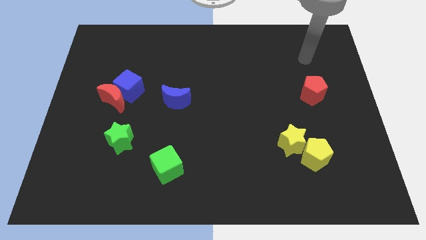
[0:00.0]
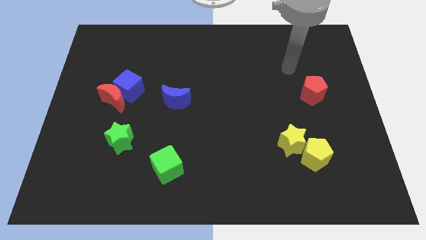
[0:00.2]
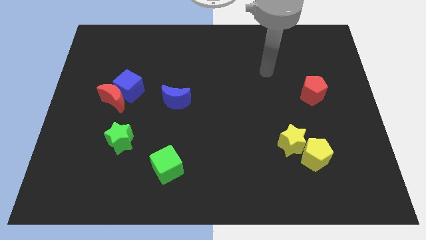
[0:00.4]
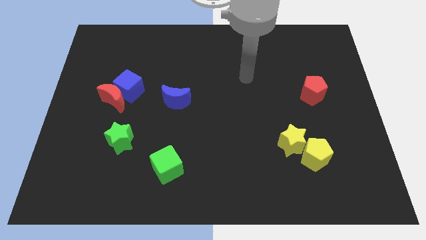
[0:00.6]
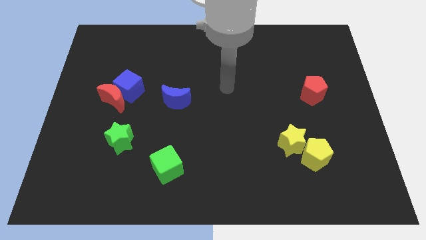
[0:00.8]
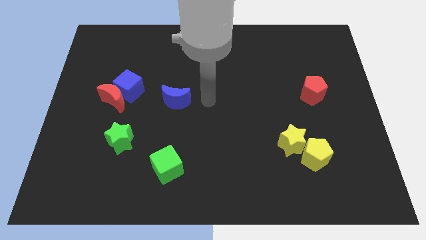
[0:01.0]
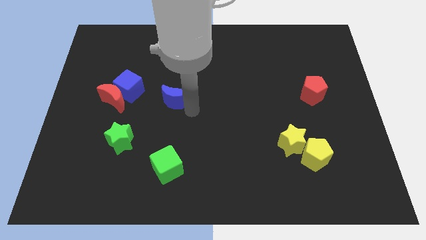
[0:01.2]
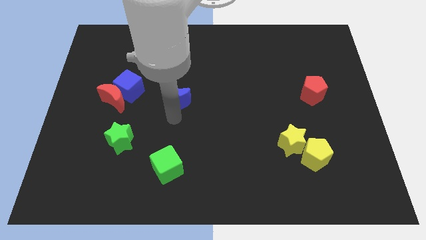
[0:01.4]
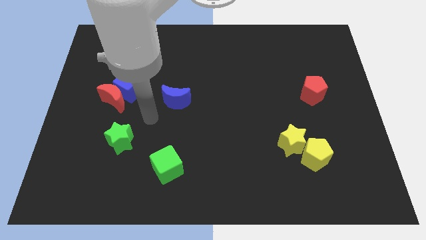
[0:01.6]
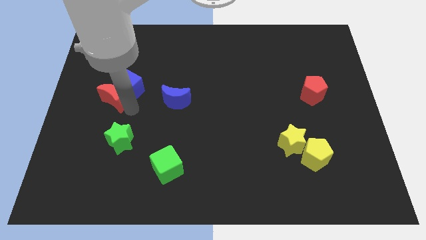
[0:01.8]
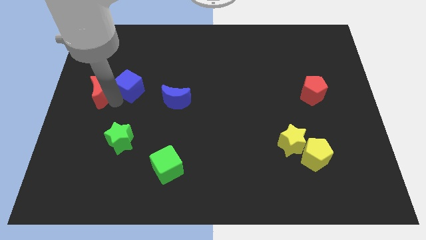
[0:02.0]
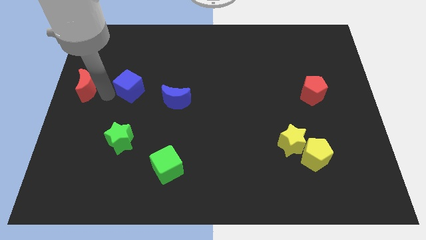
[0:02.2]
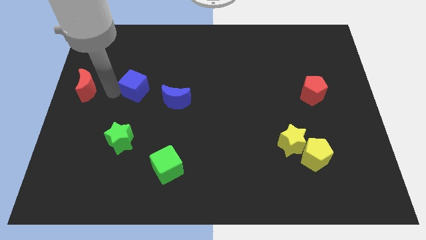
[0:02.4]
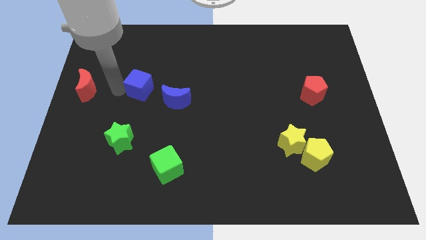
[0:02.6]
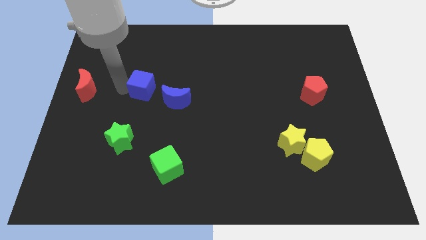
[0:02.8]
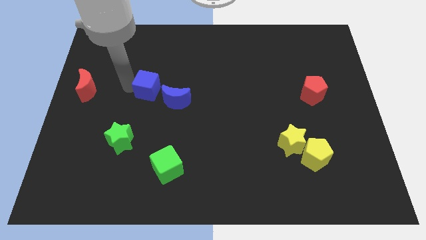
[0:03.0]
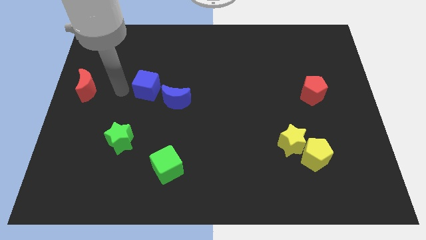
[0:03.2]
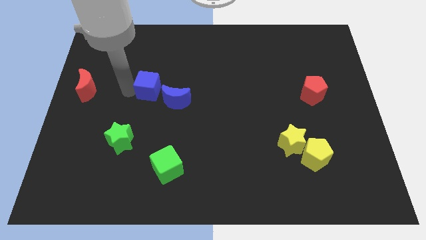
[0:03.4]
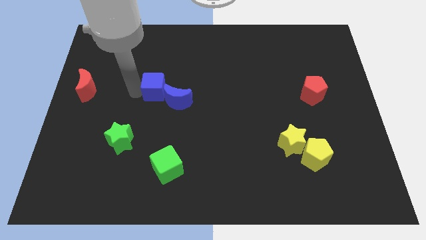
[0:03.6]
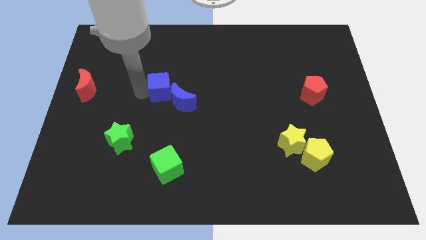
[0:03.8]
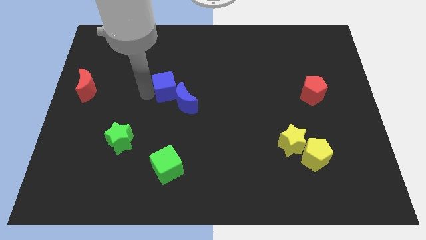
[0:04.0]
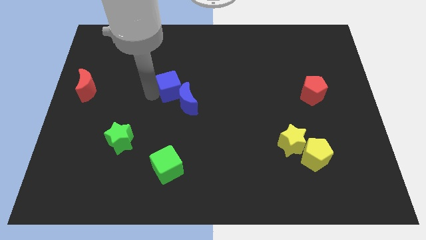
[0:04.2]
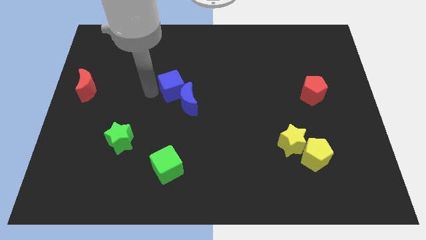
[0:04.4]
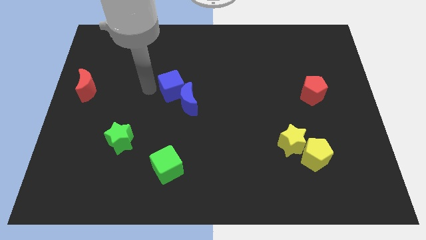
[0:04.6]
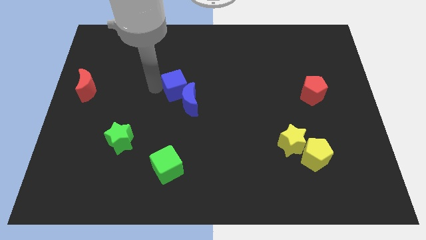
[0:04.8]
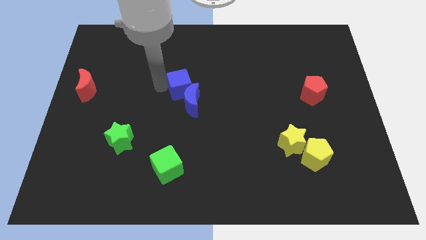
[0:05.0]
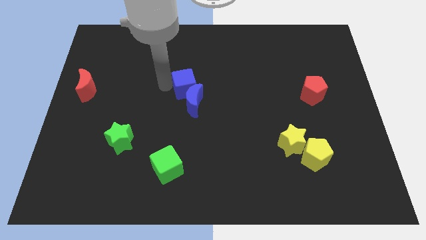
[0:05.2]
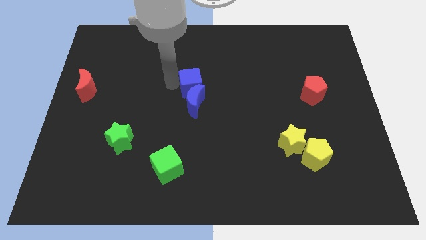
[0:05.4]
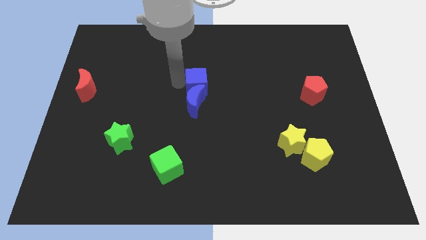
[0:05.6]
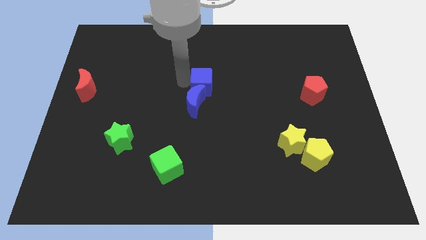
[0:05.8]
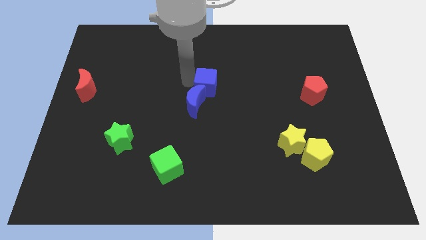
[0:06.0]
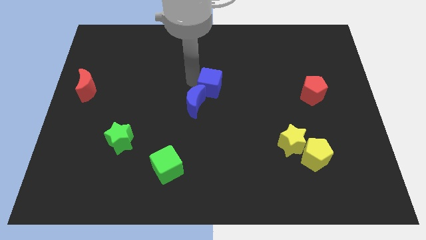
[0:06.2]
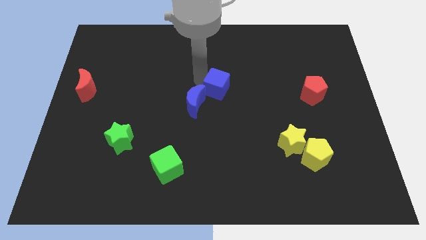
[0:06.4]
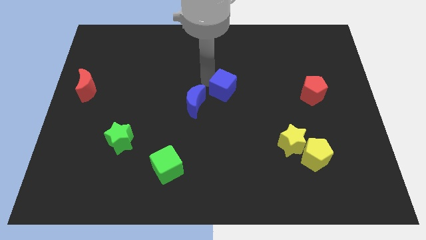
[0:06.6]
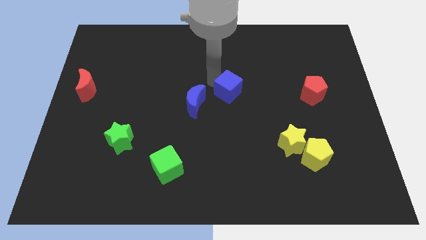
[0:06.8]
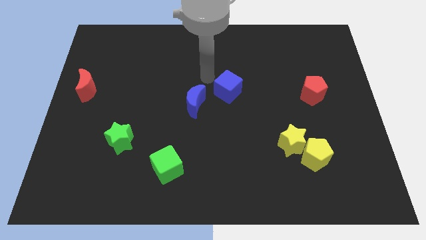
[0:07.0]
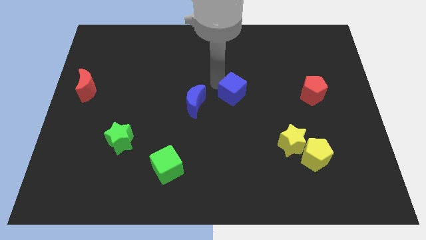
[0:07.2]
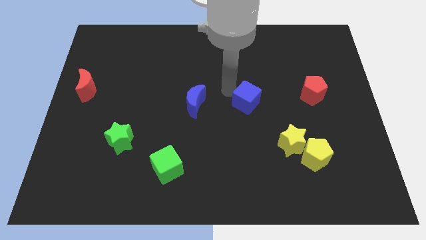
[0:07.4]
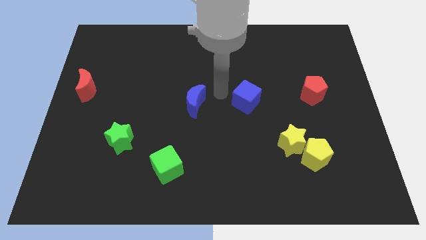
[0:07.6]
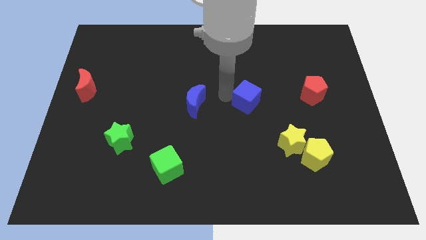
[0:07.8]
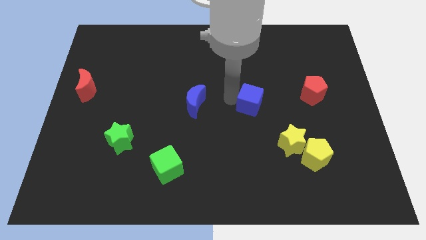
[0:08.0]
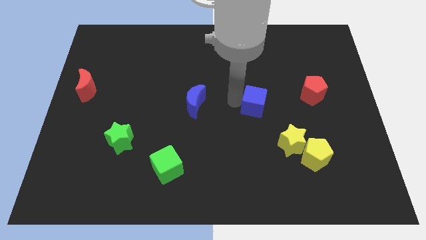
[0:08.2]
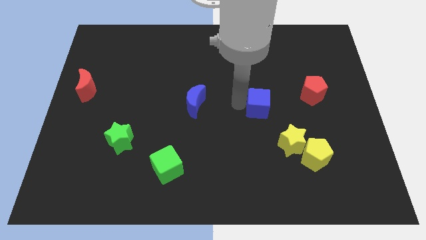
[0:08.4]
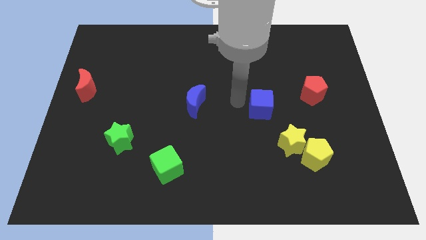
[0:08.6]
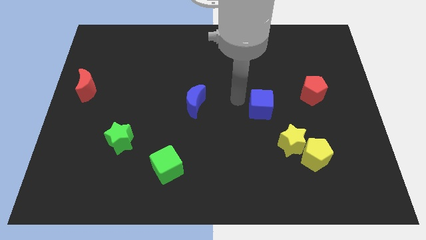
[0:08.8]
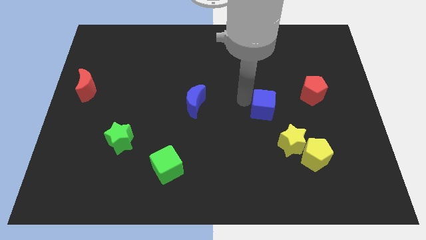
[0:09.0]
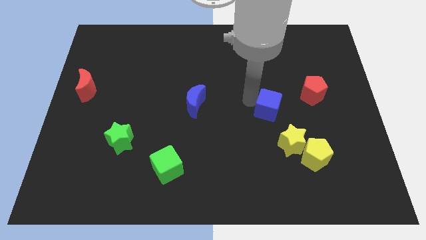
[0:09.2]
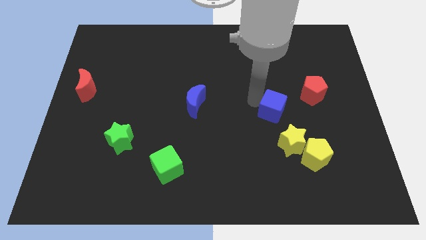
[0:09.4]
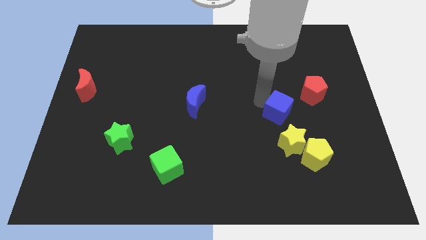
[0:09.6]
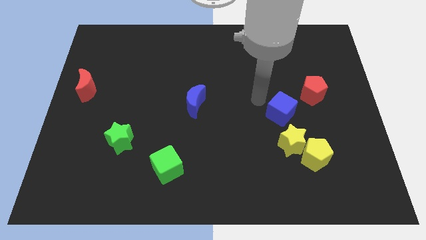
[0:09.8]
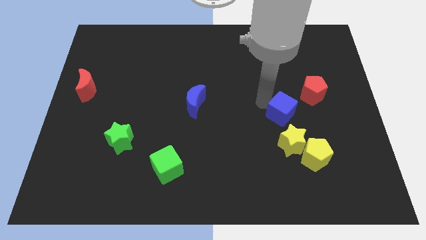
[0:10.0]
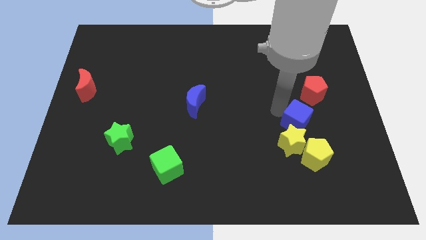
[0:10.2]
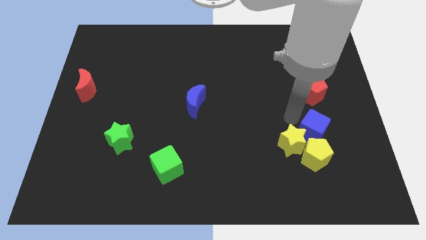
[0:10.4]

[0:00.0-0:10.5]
push the blue cube right of the yellow star

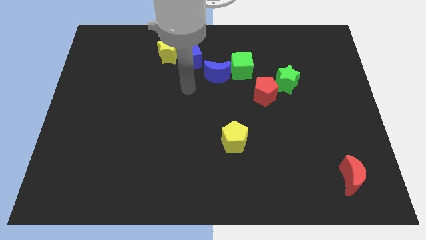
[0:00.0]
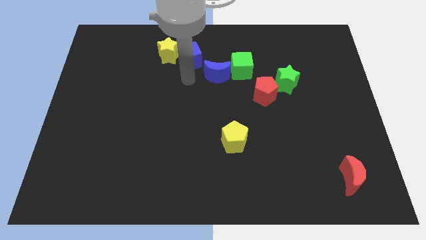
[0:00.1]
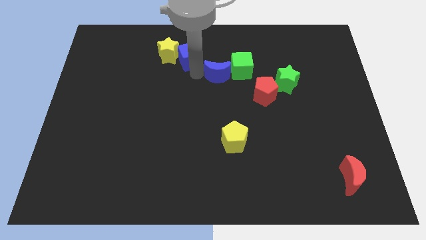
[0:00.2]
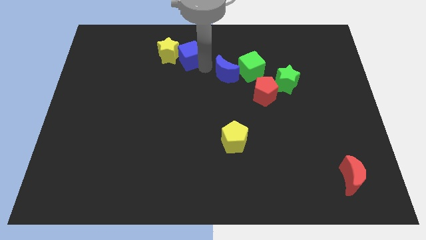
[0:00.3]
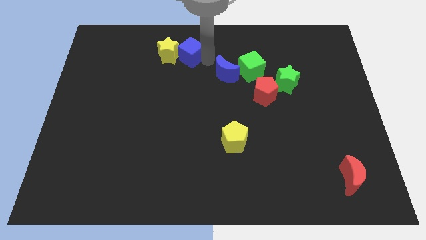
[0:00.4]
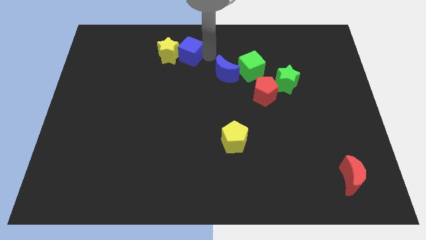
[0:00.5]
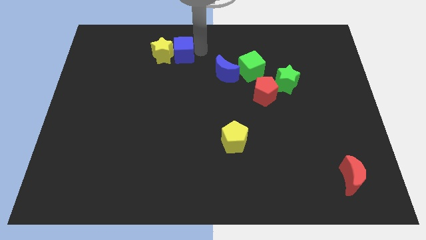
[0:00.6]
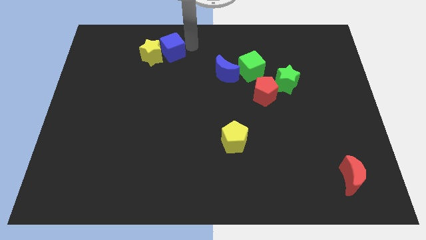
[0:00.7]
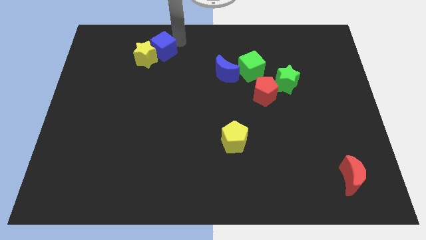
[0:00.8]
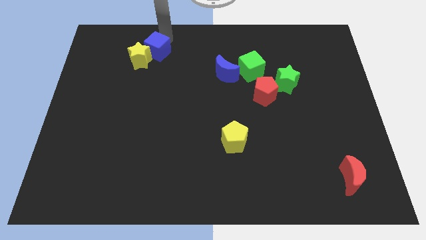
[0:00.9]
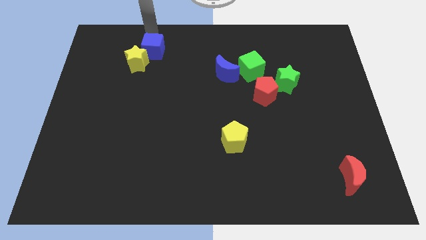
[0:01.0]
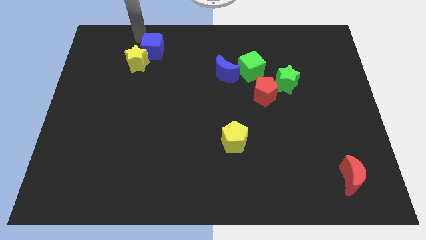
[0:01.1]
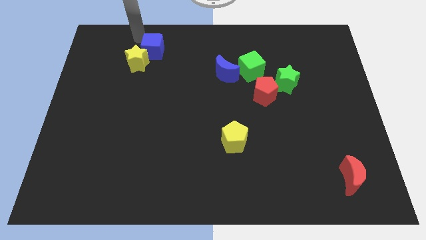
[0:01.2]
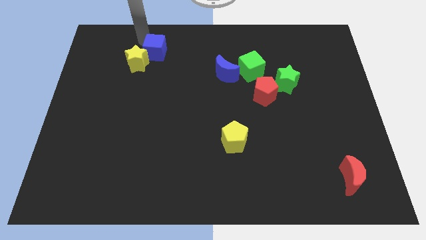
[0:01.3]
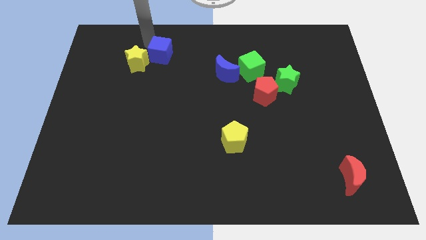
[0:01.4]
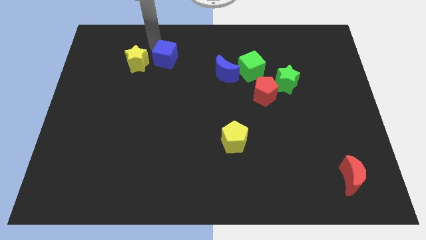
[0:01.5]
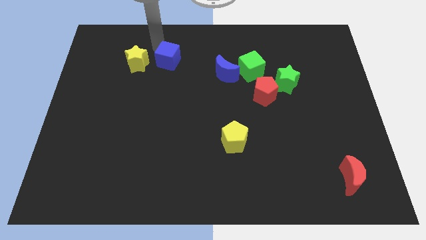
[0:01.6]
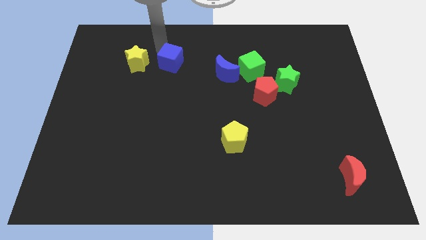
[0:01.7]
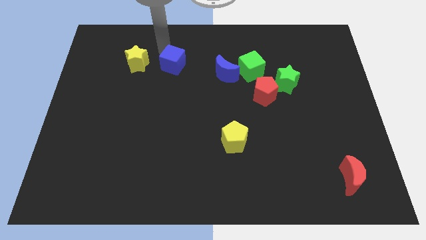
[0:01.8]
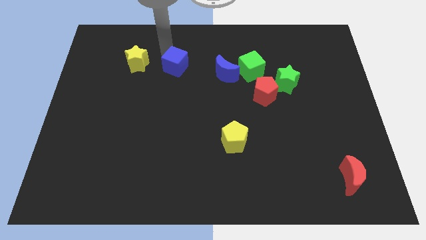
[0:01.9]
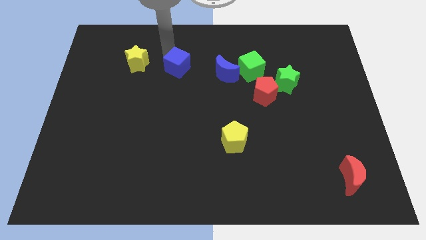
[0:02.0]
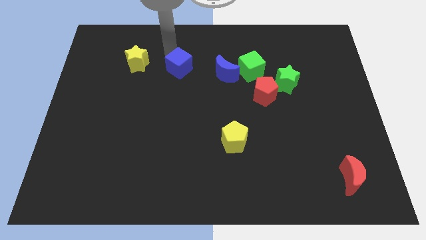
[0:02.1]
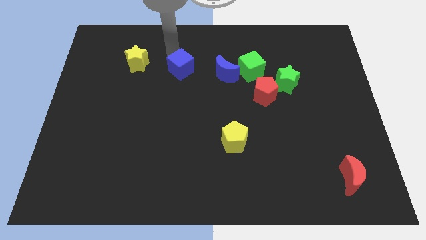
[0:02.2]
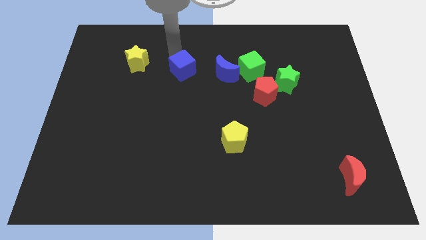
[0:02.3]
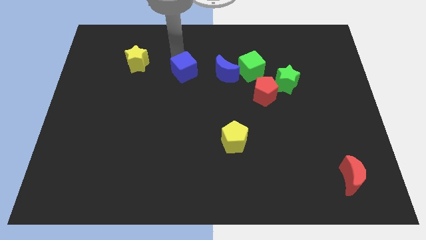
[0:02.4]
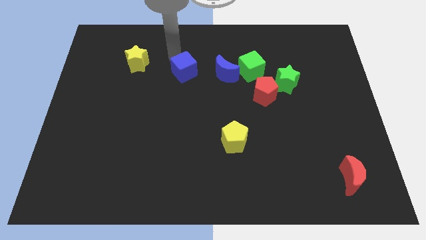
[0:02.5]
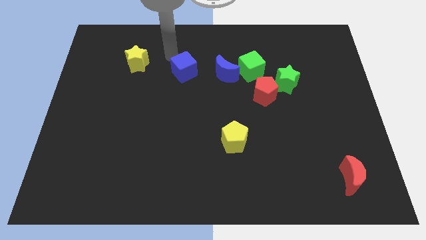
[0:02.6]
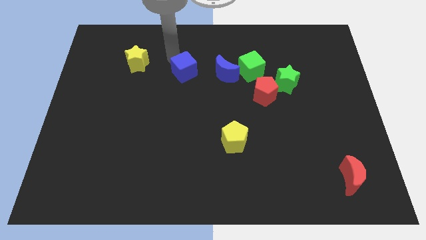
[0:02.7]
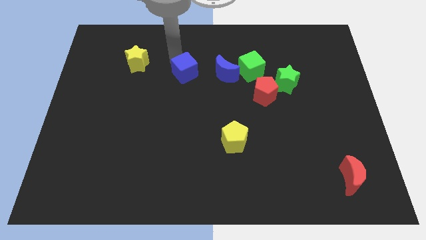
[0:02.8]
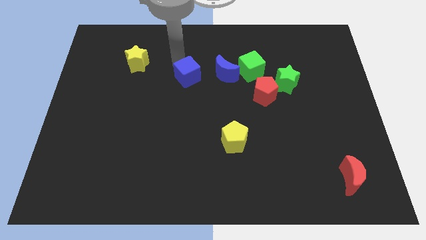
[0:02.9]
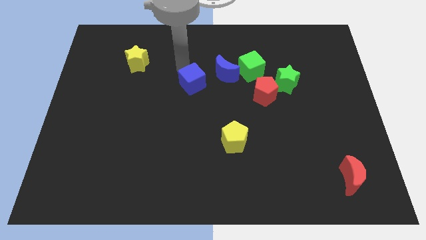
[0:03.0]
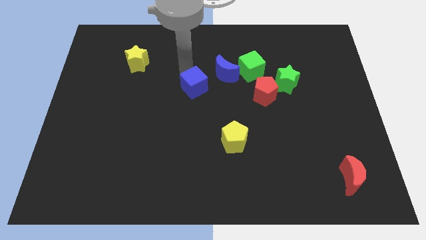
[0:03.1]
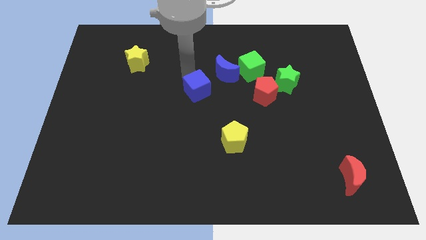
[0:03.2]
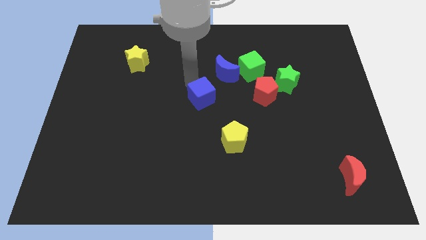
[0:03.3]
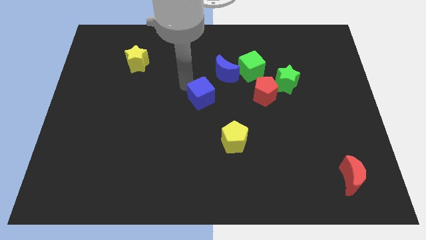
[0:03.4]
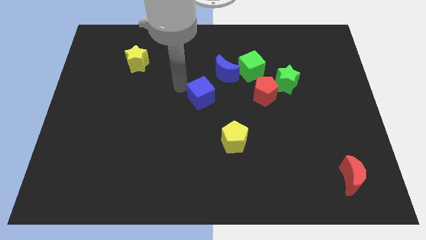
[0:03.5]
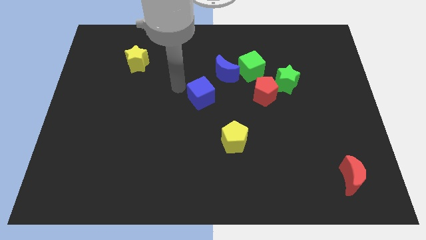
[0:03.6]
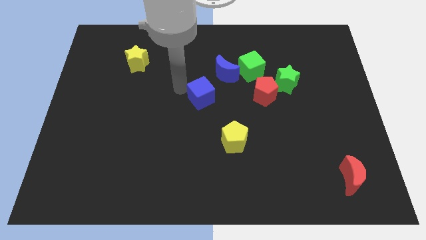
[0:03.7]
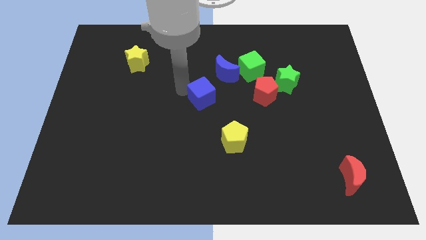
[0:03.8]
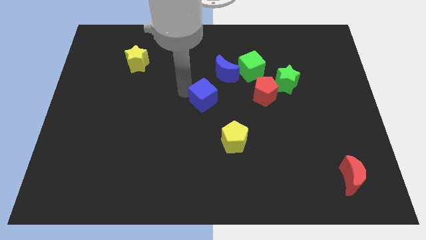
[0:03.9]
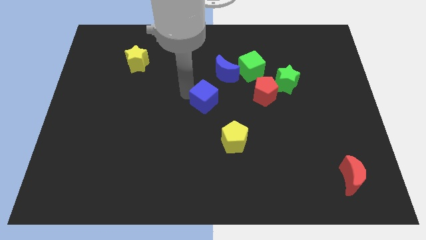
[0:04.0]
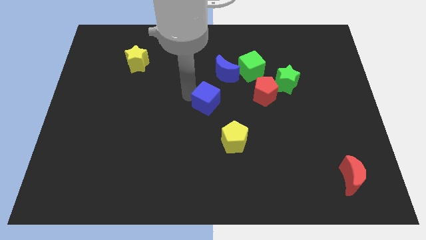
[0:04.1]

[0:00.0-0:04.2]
slide the blue cube below the blue moon
